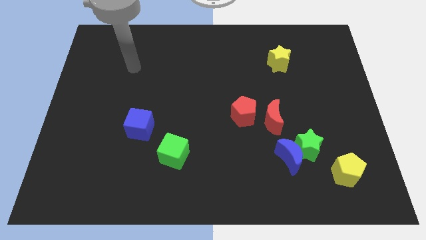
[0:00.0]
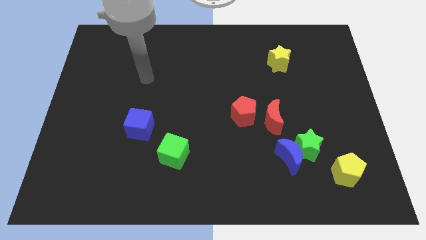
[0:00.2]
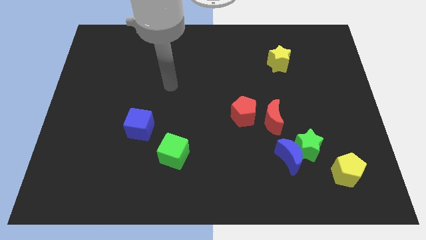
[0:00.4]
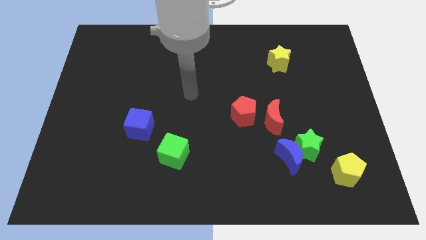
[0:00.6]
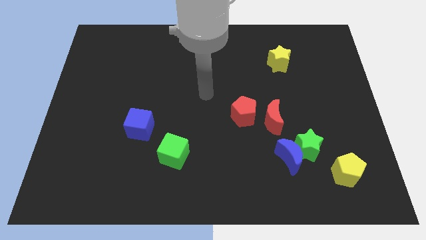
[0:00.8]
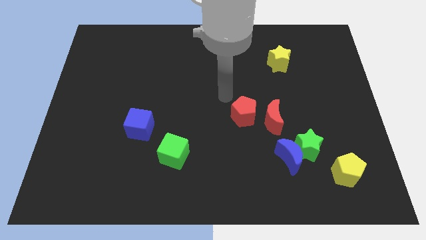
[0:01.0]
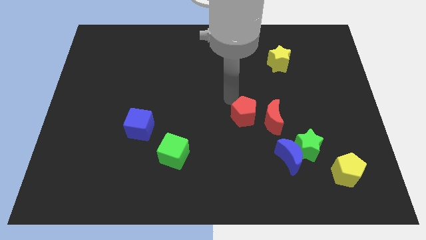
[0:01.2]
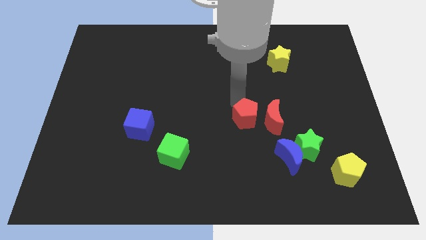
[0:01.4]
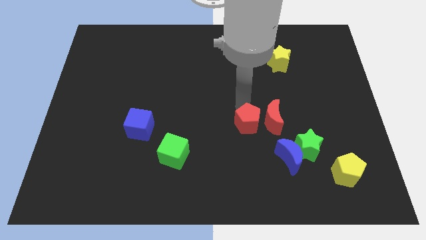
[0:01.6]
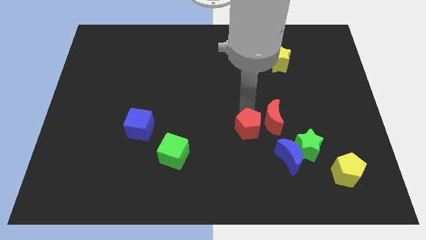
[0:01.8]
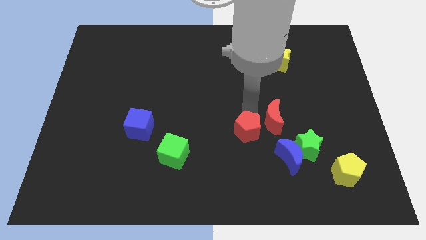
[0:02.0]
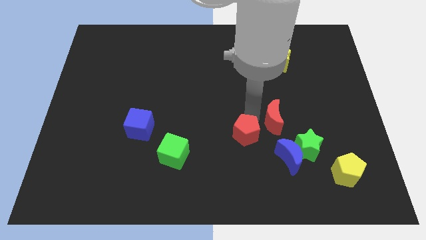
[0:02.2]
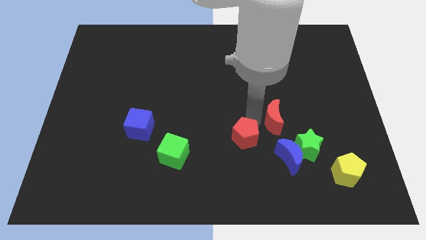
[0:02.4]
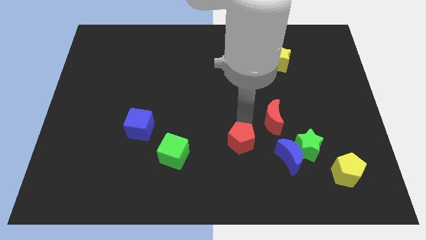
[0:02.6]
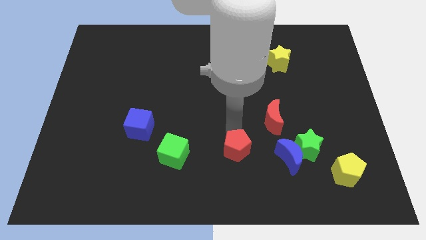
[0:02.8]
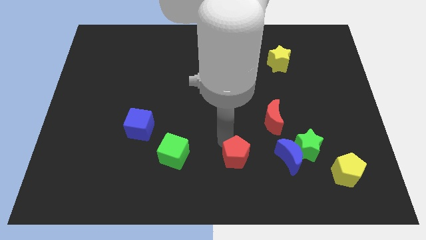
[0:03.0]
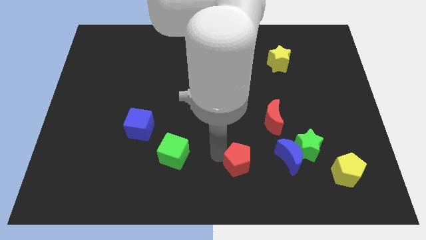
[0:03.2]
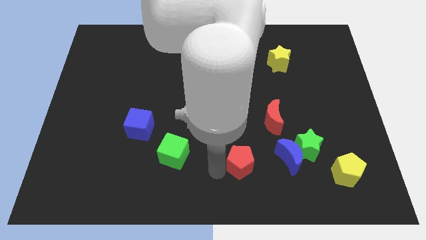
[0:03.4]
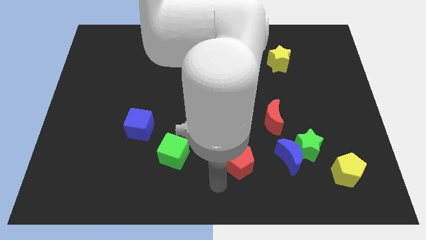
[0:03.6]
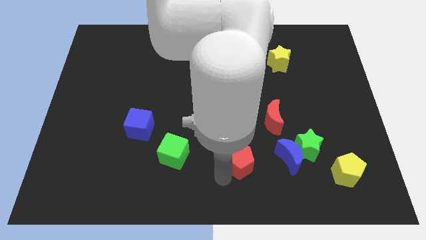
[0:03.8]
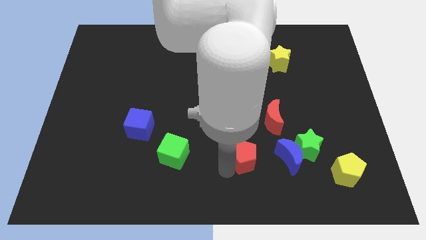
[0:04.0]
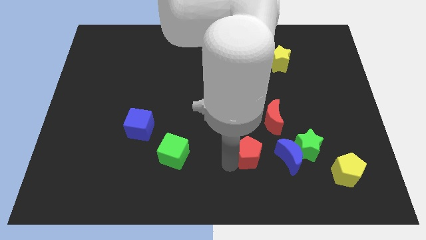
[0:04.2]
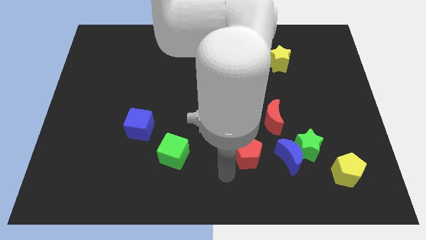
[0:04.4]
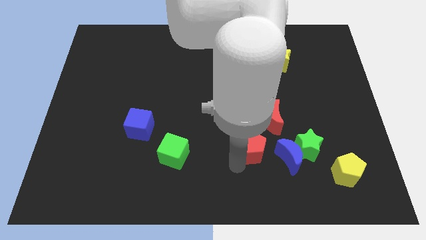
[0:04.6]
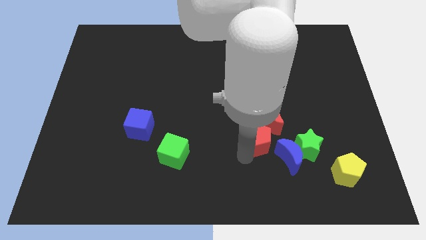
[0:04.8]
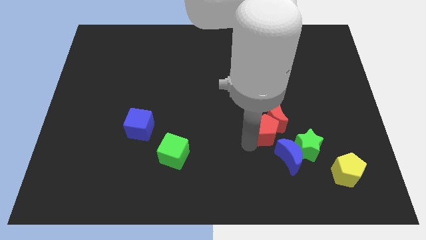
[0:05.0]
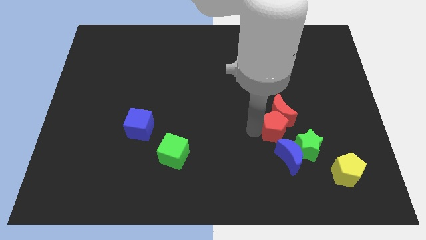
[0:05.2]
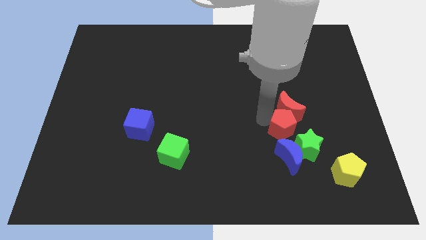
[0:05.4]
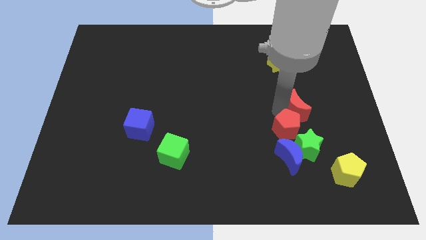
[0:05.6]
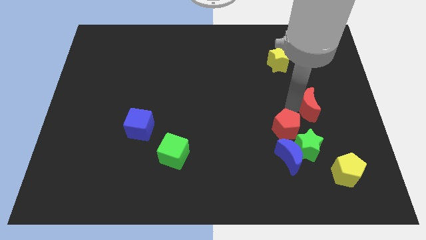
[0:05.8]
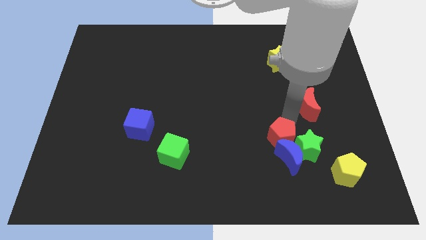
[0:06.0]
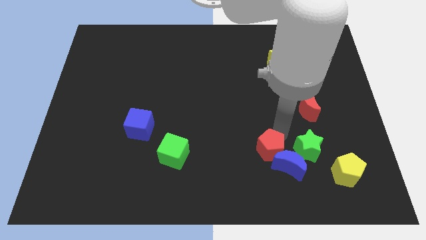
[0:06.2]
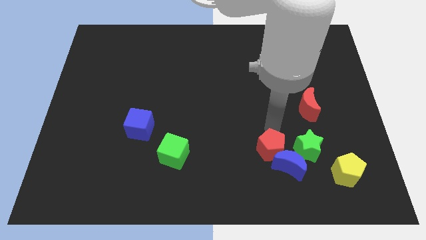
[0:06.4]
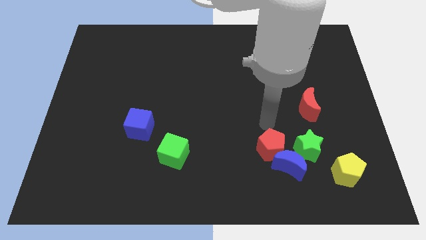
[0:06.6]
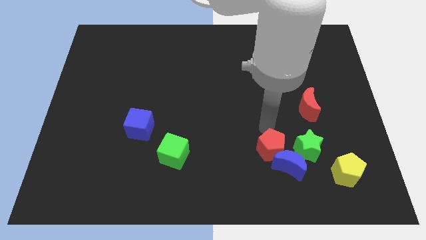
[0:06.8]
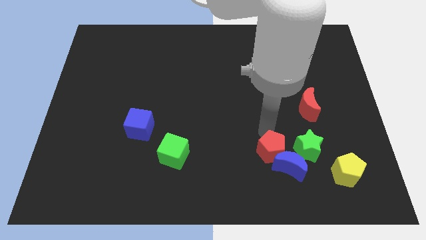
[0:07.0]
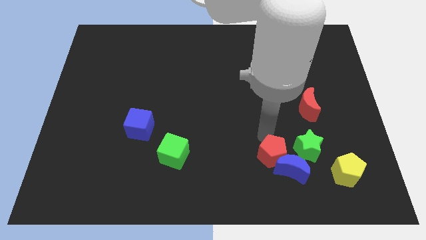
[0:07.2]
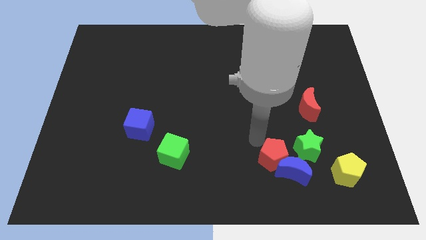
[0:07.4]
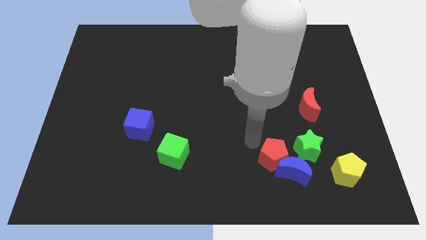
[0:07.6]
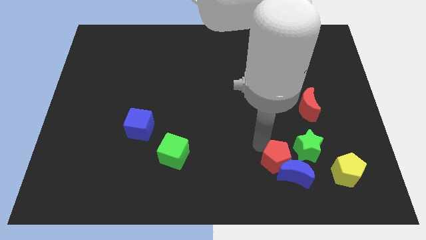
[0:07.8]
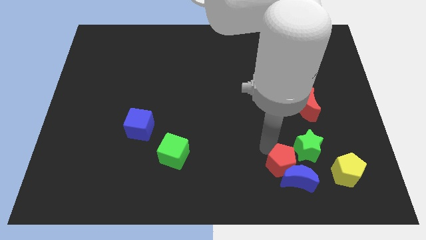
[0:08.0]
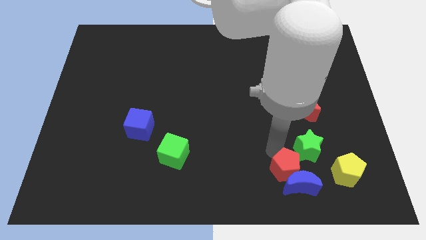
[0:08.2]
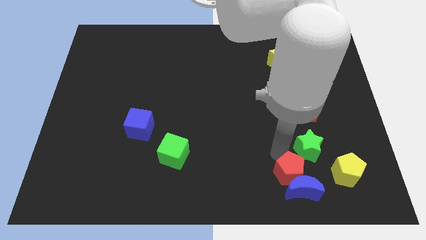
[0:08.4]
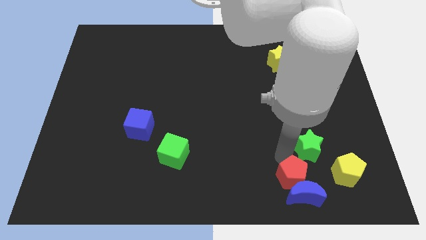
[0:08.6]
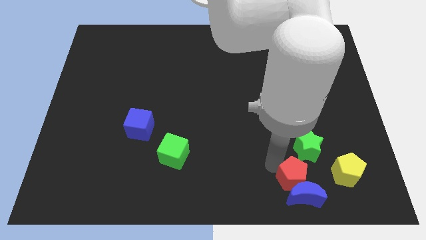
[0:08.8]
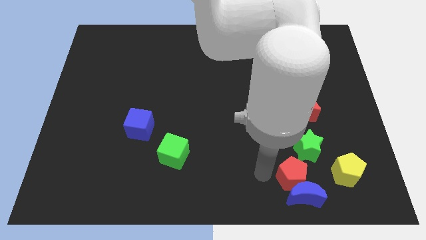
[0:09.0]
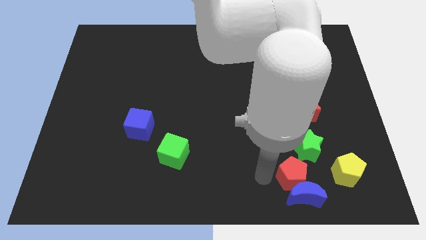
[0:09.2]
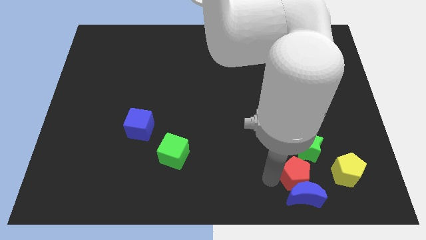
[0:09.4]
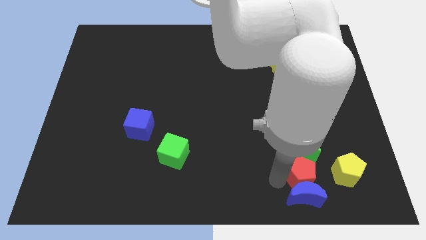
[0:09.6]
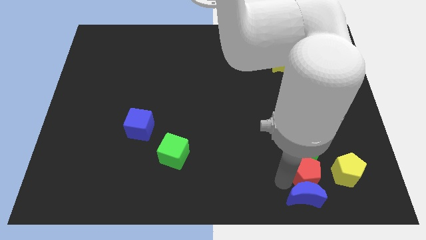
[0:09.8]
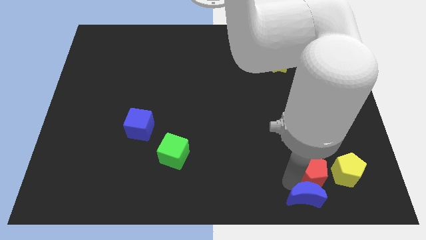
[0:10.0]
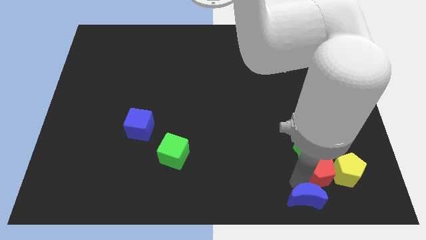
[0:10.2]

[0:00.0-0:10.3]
put the red pentagon towards the yellow pentagon

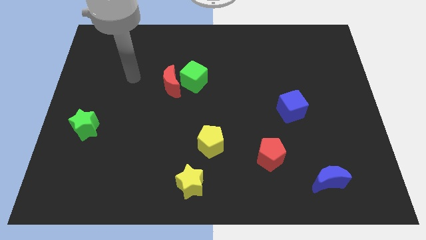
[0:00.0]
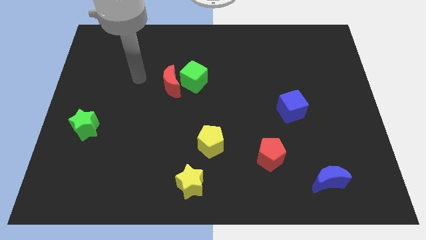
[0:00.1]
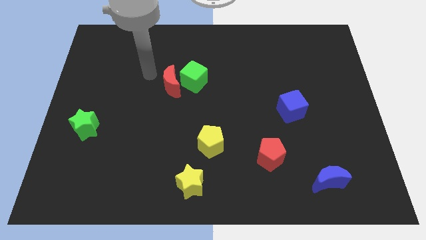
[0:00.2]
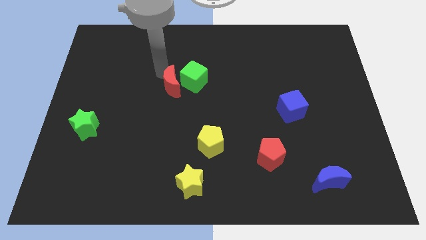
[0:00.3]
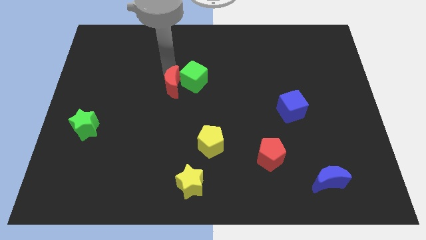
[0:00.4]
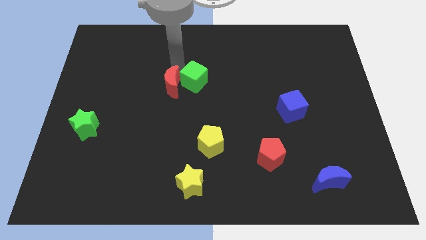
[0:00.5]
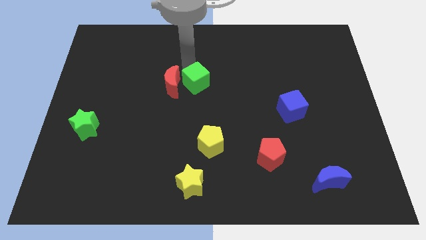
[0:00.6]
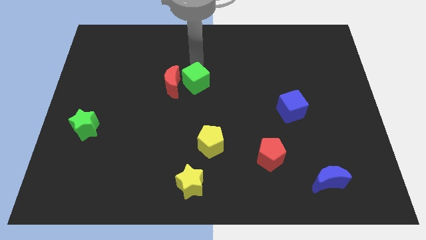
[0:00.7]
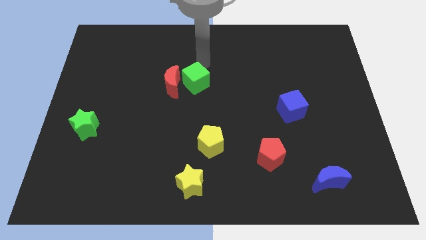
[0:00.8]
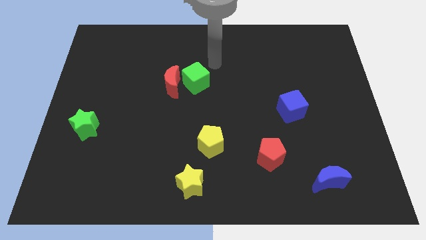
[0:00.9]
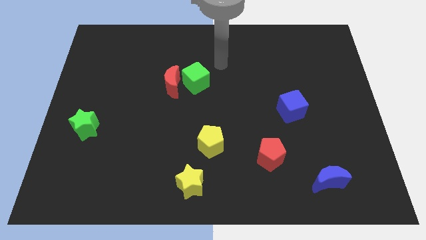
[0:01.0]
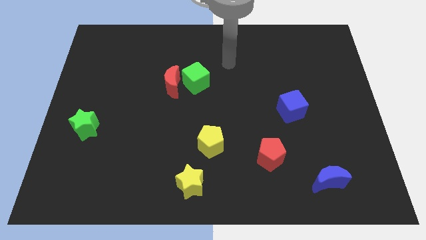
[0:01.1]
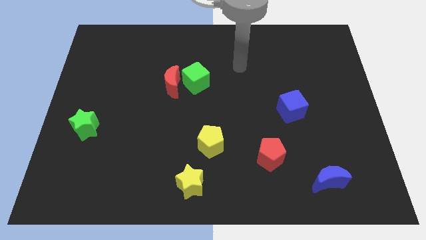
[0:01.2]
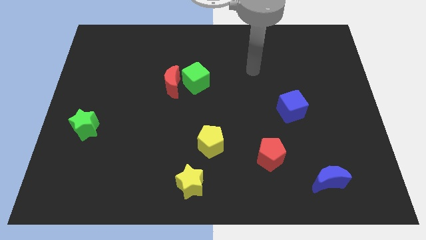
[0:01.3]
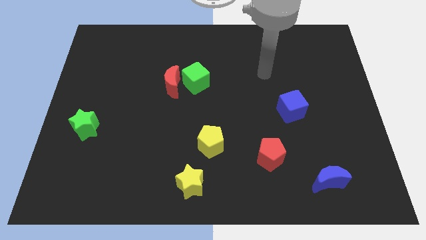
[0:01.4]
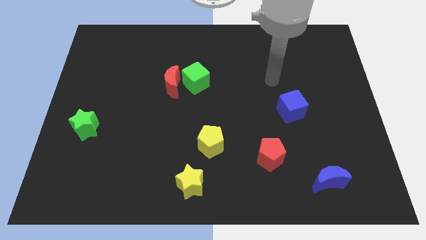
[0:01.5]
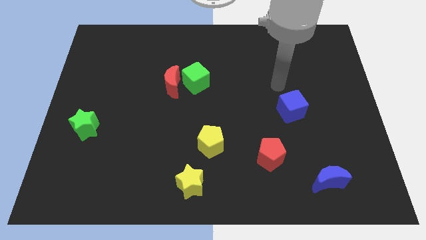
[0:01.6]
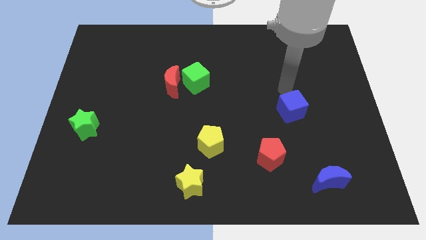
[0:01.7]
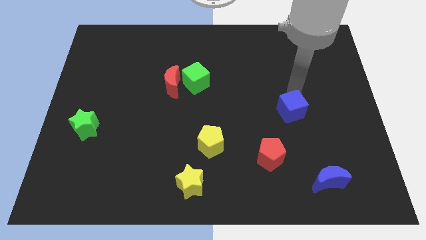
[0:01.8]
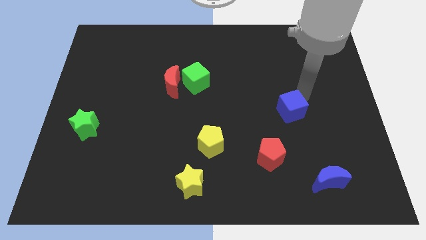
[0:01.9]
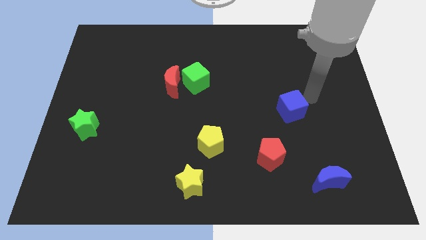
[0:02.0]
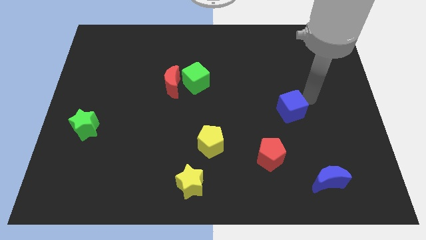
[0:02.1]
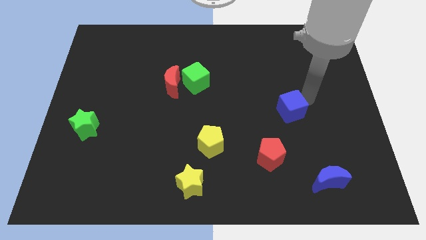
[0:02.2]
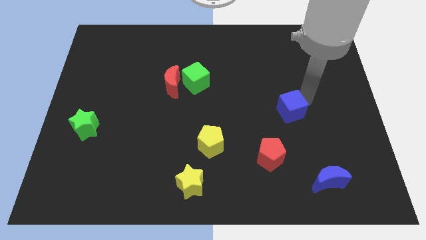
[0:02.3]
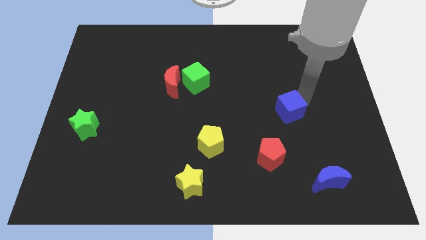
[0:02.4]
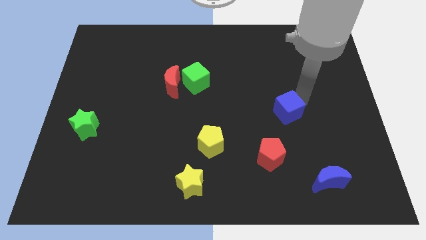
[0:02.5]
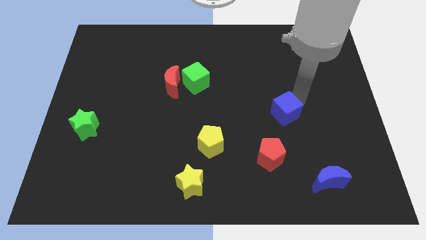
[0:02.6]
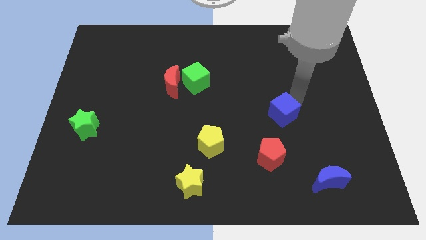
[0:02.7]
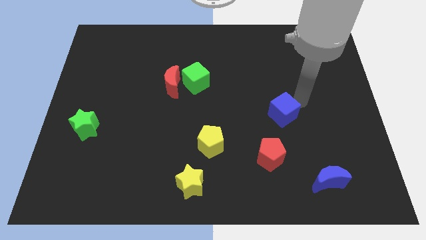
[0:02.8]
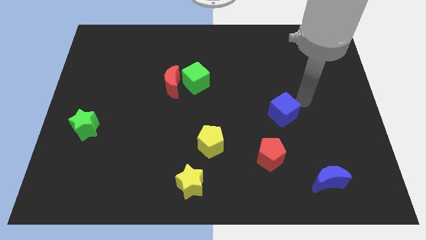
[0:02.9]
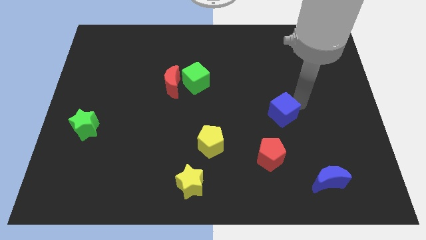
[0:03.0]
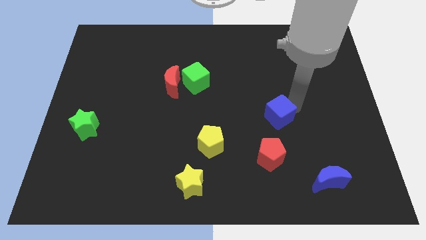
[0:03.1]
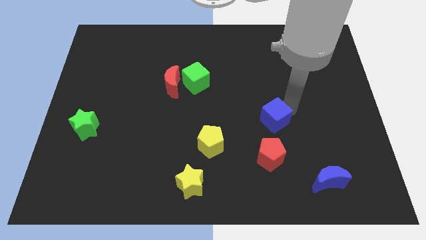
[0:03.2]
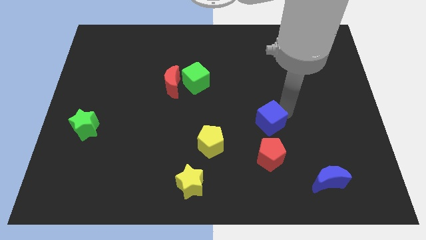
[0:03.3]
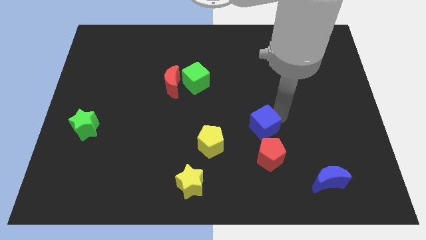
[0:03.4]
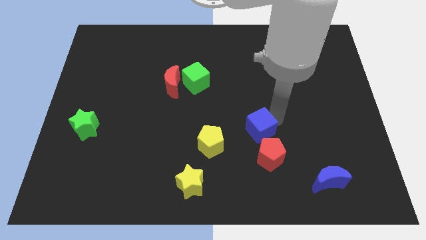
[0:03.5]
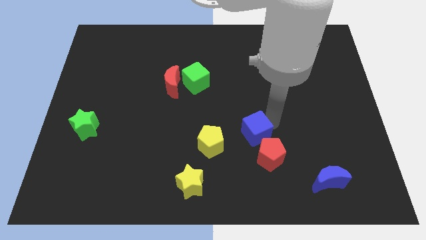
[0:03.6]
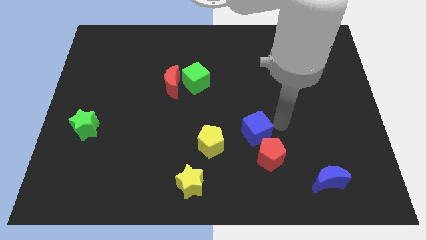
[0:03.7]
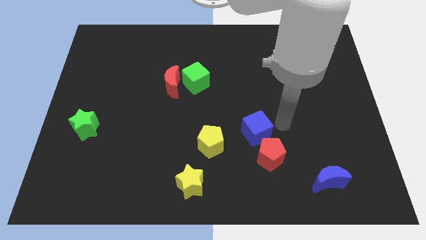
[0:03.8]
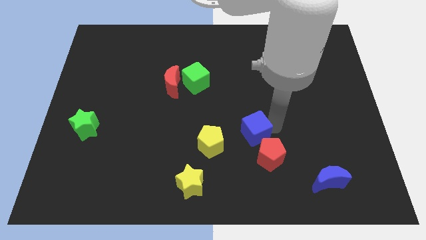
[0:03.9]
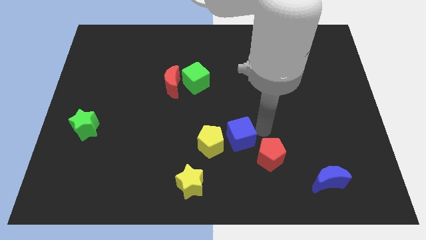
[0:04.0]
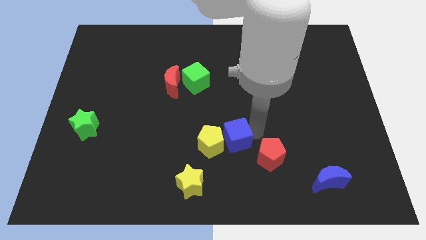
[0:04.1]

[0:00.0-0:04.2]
push the blue cube next to the yellow pentagon
